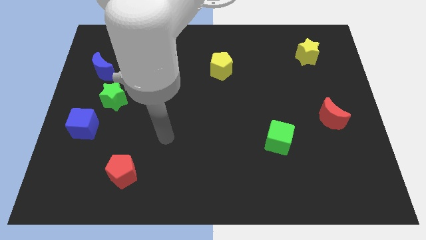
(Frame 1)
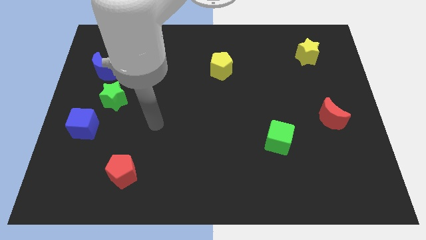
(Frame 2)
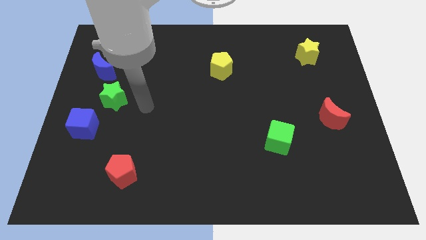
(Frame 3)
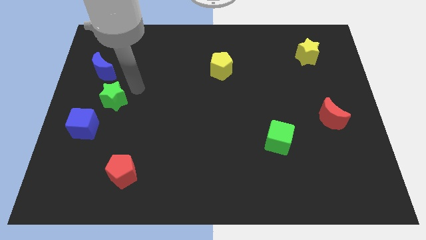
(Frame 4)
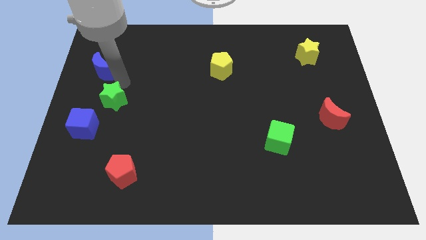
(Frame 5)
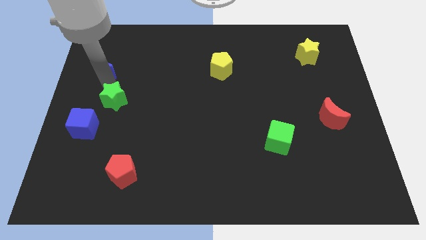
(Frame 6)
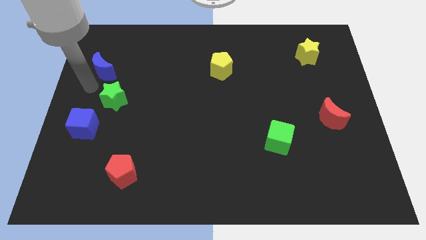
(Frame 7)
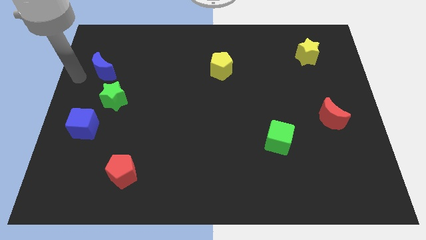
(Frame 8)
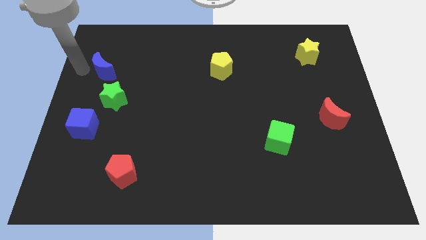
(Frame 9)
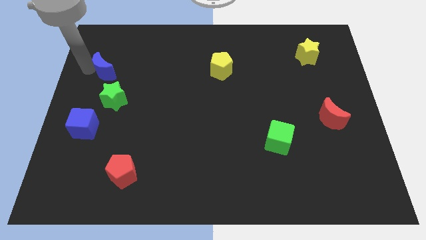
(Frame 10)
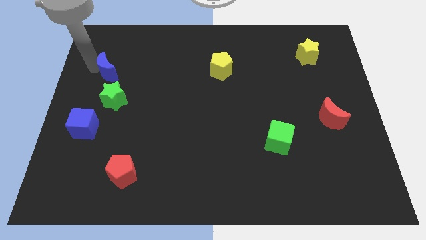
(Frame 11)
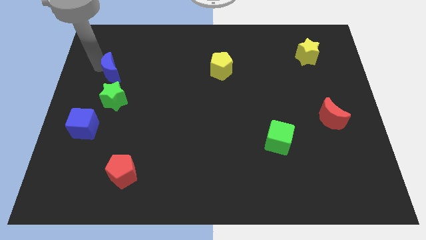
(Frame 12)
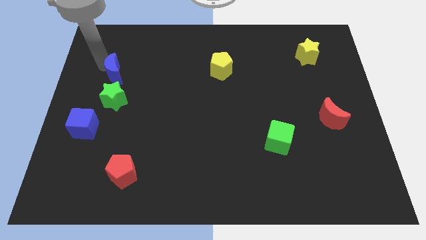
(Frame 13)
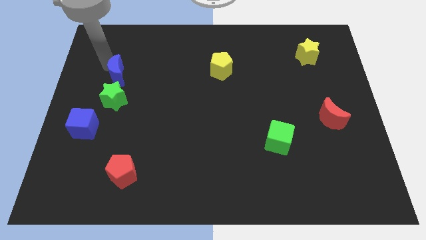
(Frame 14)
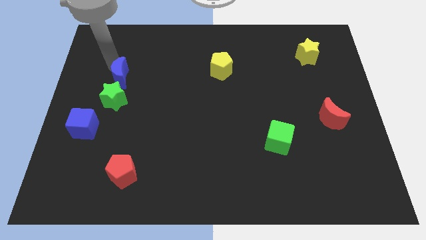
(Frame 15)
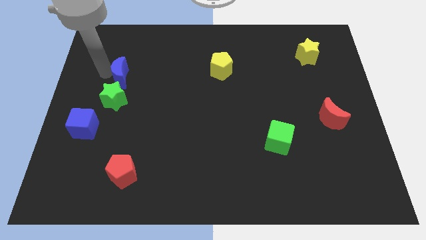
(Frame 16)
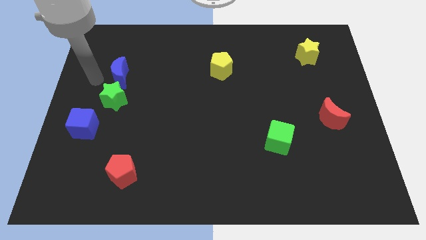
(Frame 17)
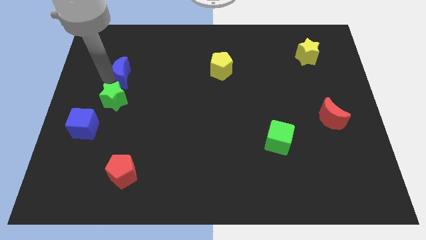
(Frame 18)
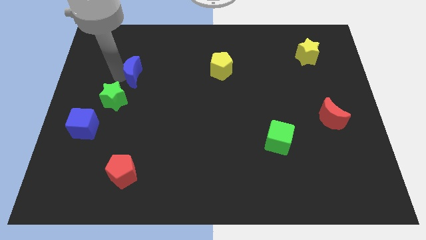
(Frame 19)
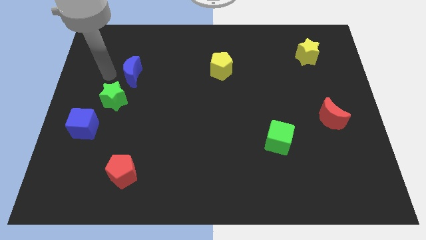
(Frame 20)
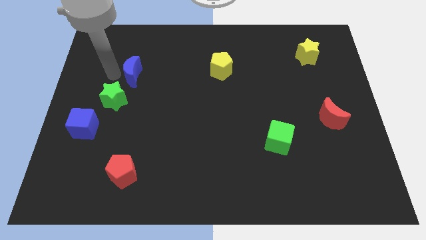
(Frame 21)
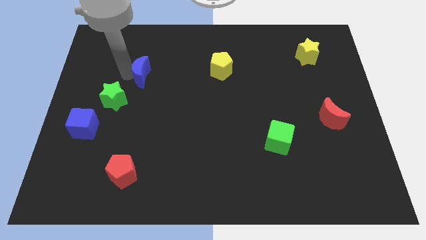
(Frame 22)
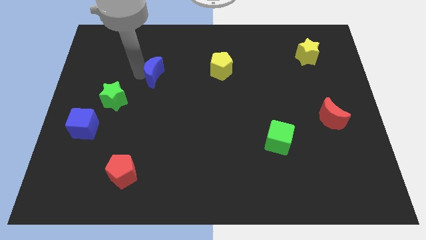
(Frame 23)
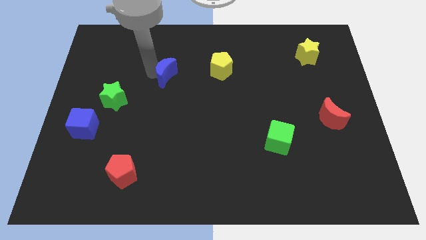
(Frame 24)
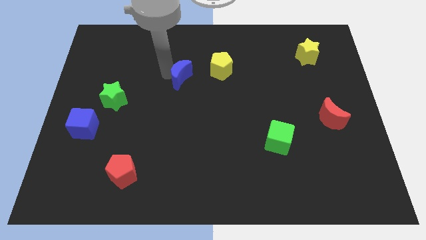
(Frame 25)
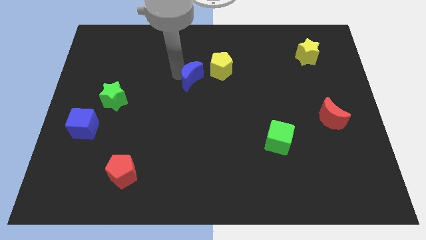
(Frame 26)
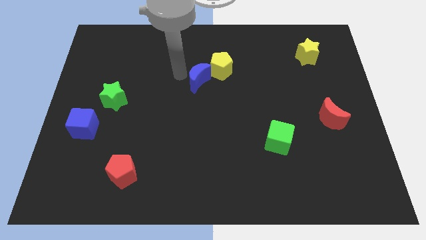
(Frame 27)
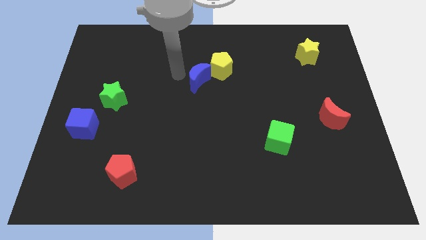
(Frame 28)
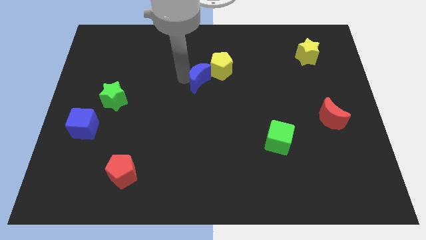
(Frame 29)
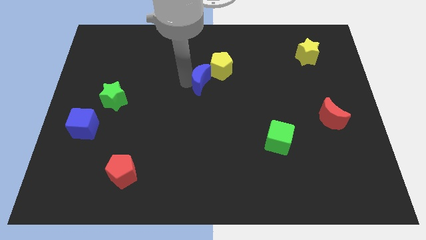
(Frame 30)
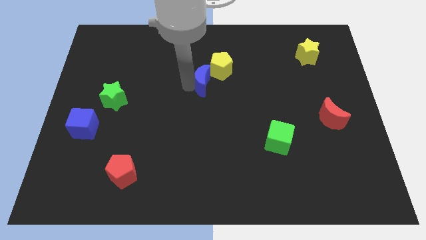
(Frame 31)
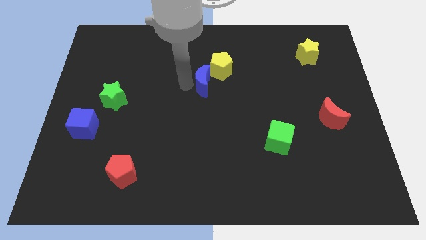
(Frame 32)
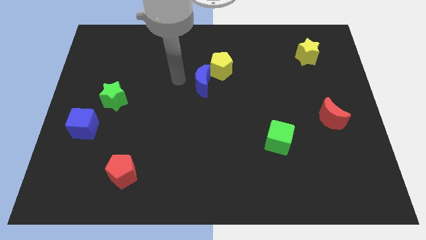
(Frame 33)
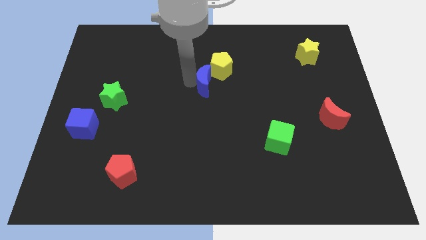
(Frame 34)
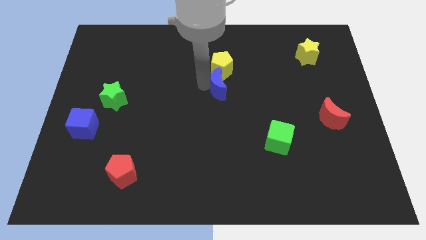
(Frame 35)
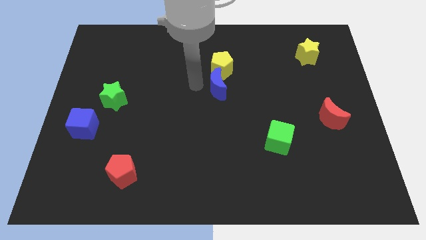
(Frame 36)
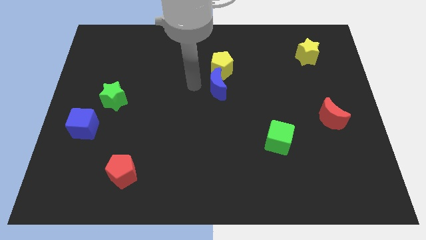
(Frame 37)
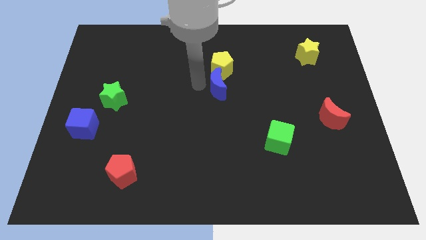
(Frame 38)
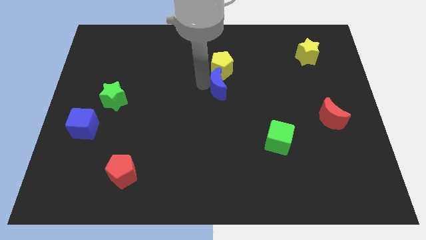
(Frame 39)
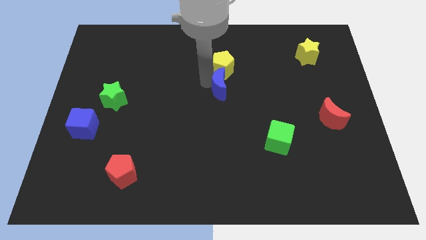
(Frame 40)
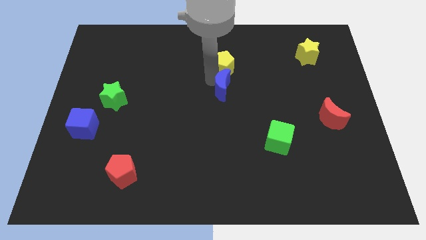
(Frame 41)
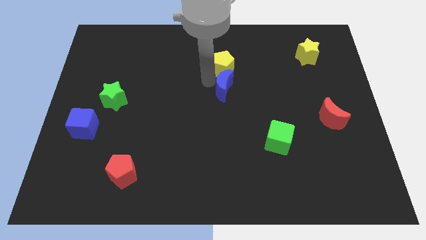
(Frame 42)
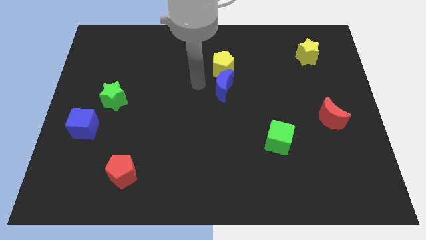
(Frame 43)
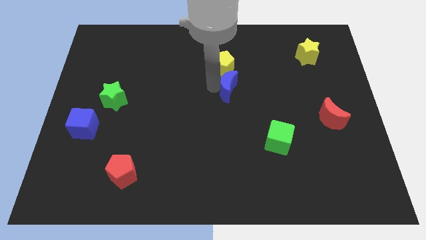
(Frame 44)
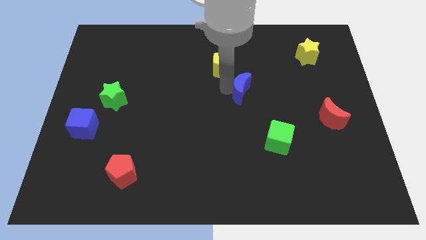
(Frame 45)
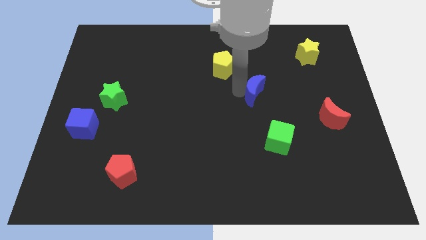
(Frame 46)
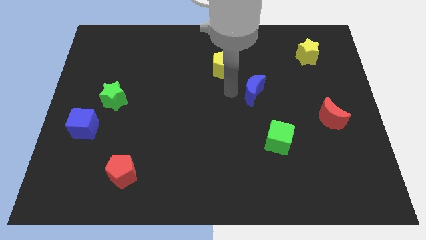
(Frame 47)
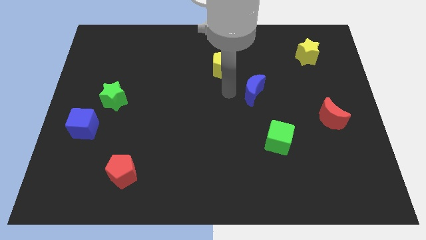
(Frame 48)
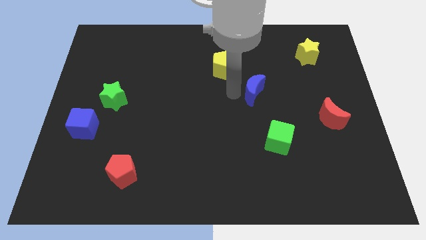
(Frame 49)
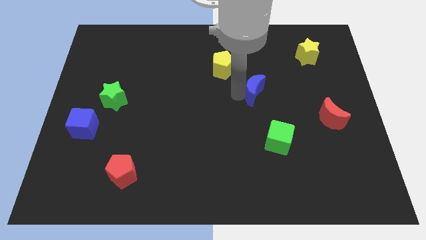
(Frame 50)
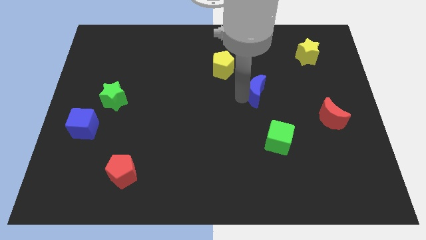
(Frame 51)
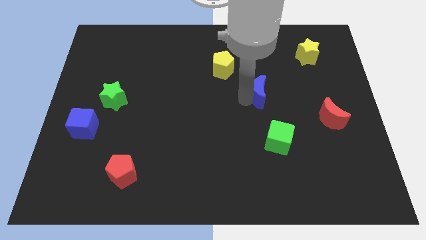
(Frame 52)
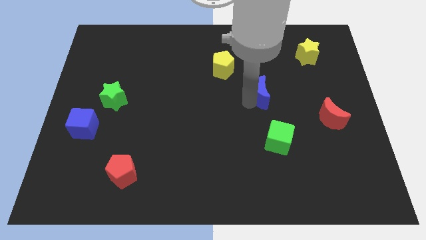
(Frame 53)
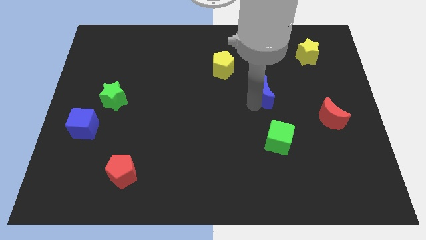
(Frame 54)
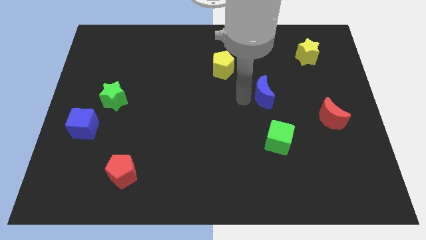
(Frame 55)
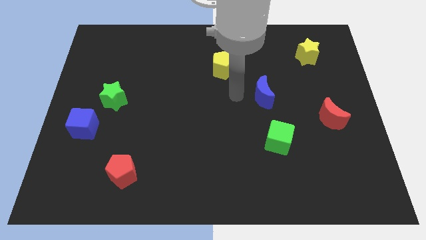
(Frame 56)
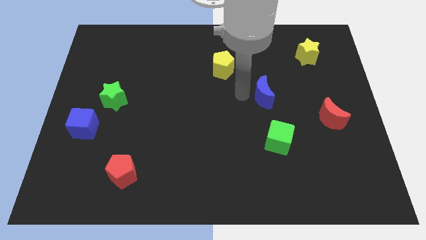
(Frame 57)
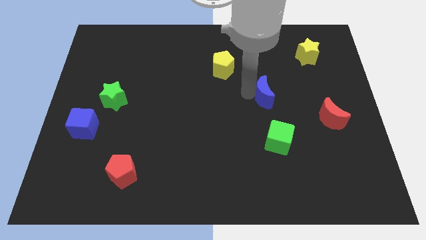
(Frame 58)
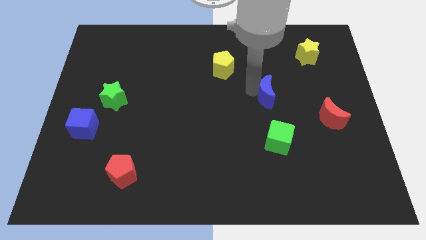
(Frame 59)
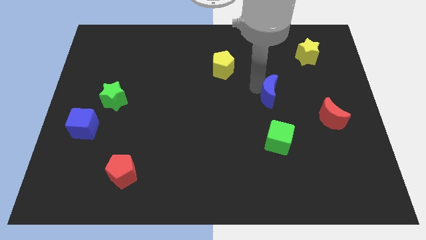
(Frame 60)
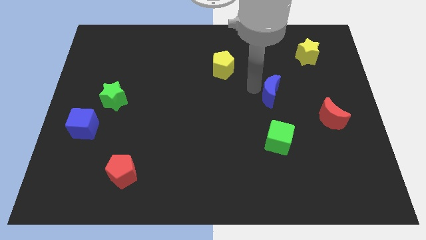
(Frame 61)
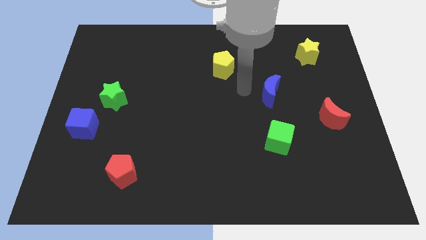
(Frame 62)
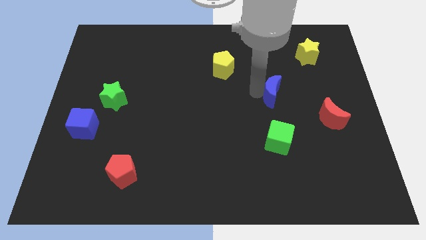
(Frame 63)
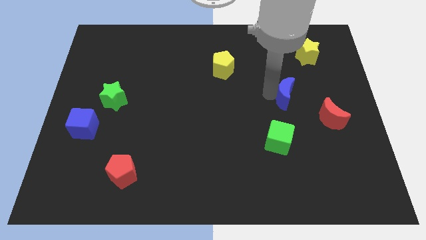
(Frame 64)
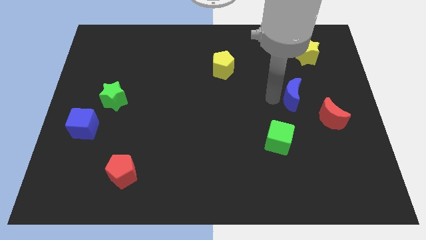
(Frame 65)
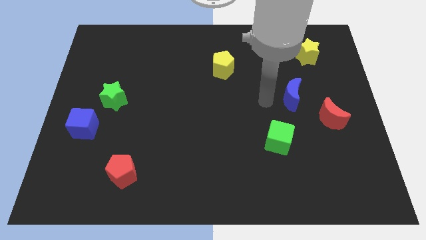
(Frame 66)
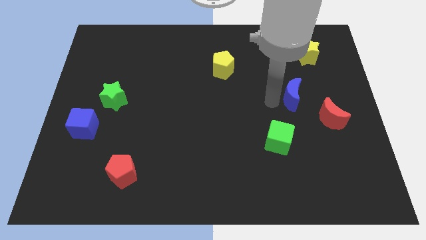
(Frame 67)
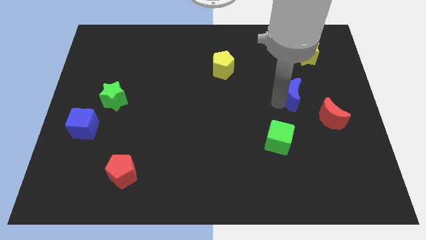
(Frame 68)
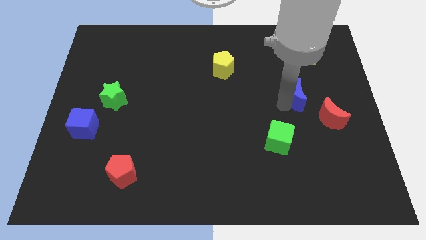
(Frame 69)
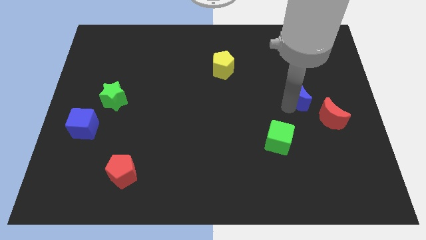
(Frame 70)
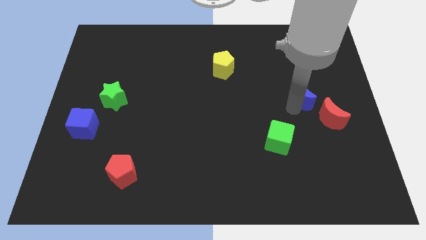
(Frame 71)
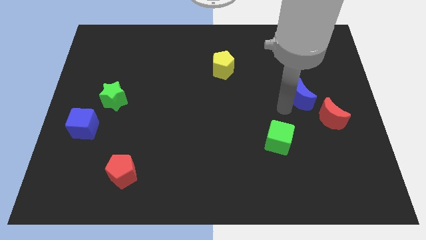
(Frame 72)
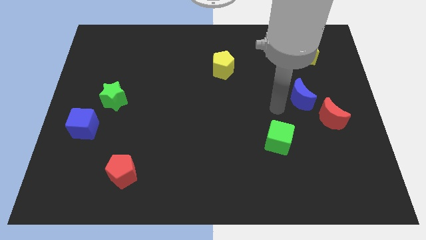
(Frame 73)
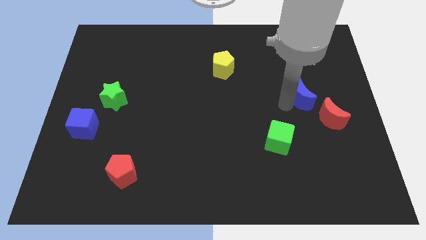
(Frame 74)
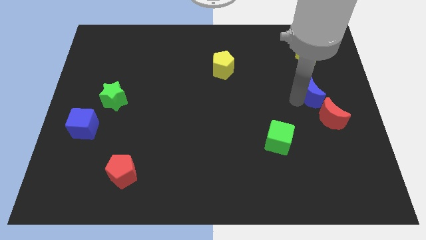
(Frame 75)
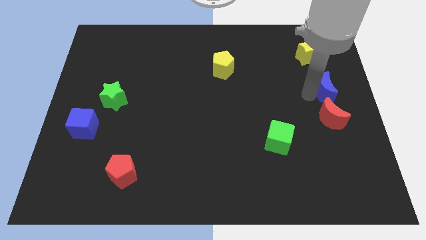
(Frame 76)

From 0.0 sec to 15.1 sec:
push the blue moon to the center right
